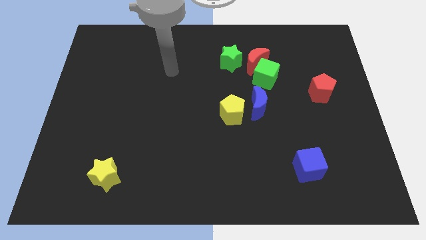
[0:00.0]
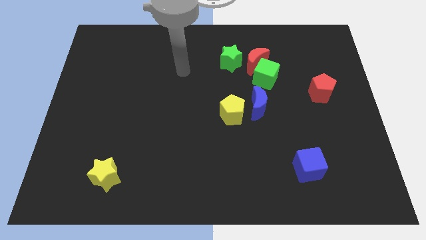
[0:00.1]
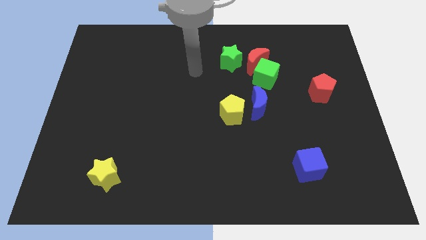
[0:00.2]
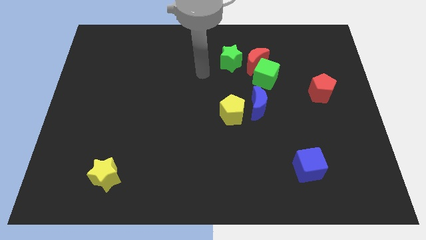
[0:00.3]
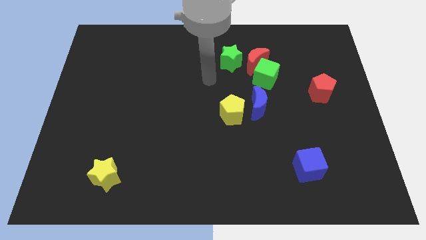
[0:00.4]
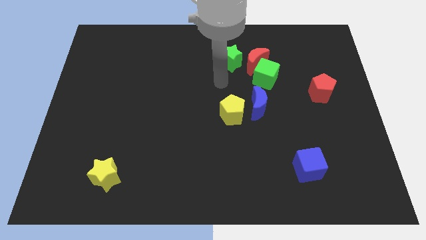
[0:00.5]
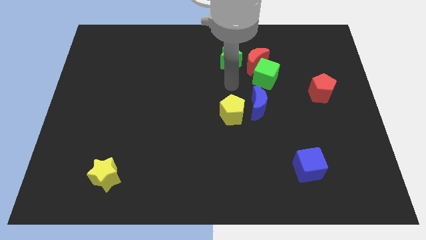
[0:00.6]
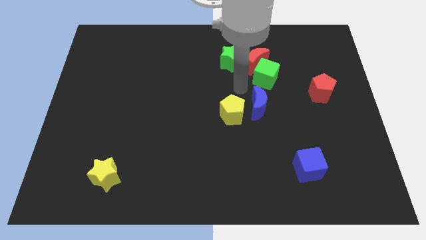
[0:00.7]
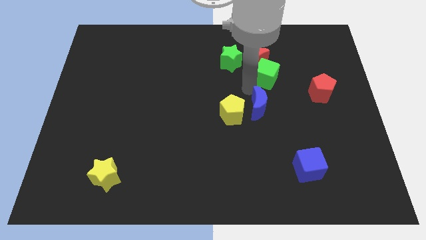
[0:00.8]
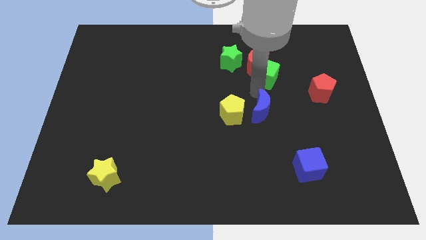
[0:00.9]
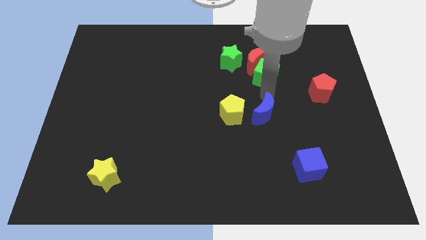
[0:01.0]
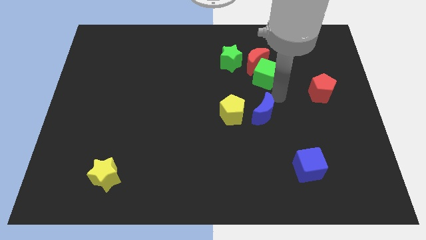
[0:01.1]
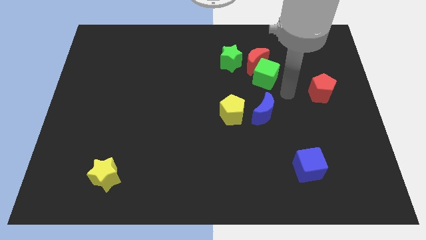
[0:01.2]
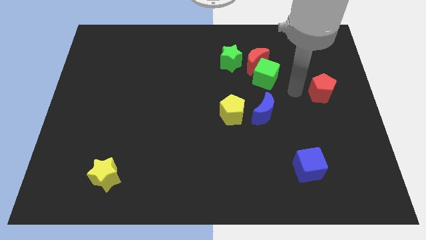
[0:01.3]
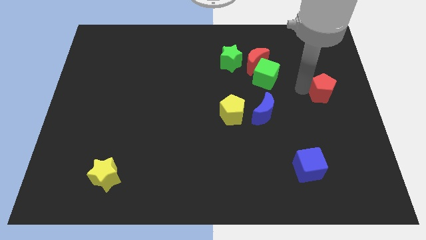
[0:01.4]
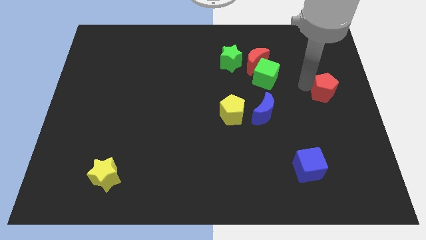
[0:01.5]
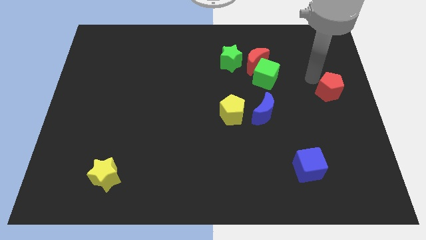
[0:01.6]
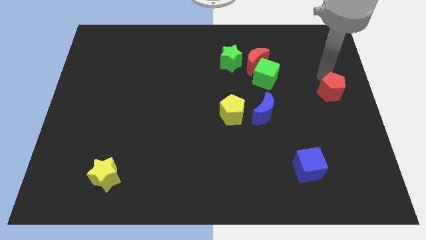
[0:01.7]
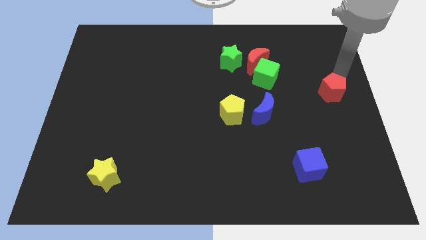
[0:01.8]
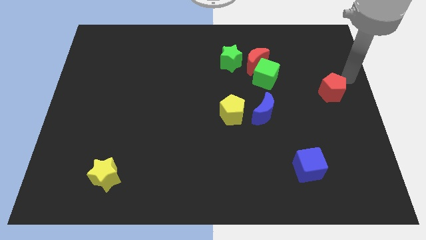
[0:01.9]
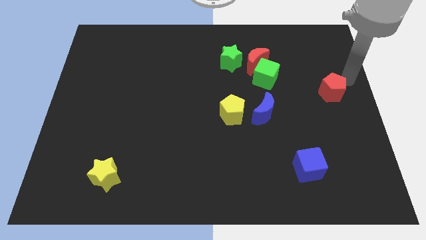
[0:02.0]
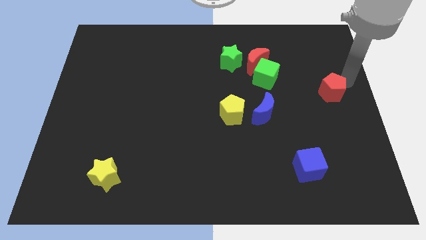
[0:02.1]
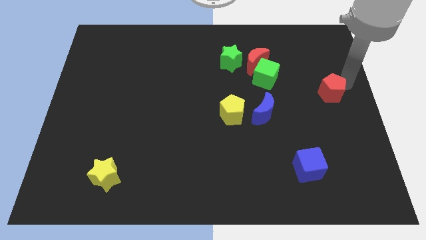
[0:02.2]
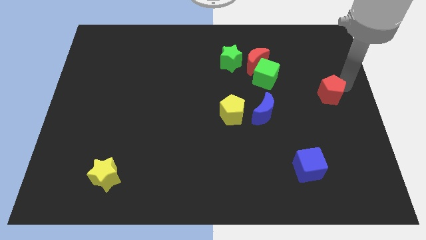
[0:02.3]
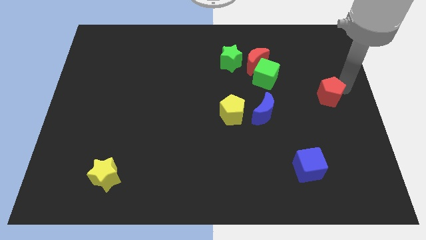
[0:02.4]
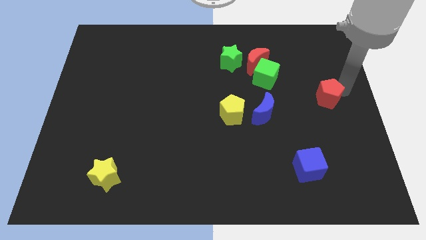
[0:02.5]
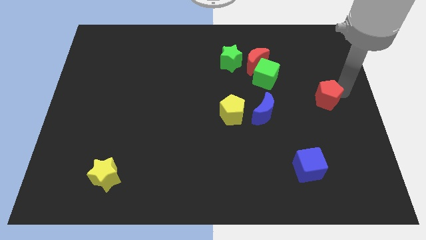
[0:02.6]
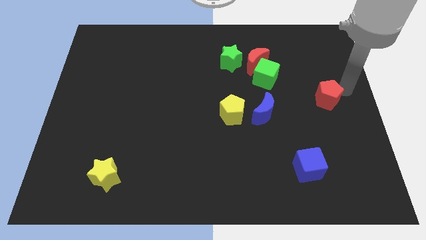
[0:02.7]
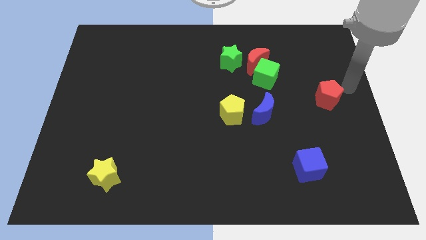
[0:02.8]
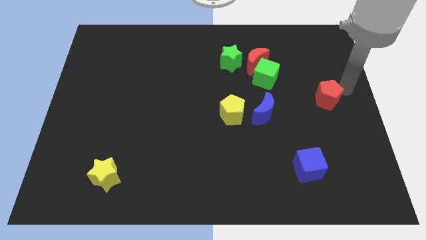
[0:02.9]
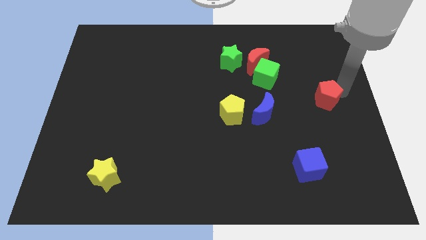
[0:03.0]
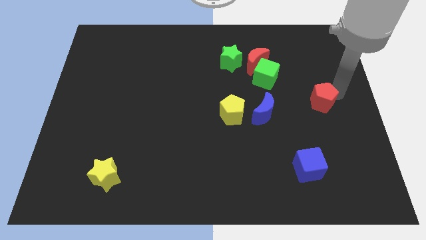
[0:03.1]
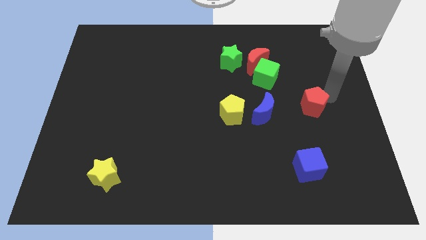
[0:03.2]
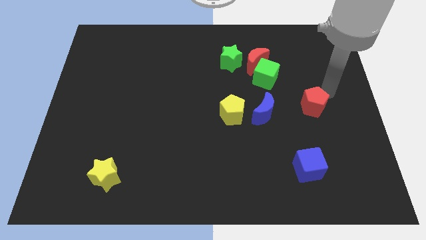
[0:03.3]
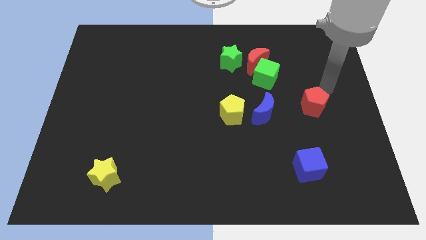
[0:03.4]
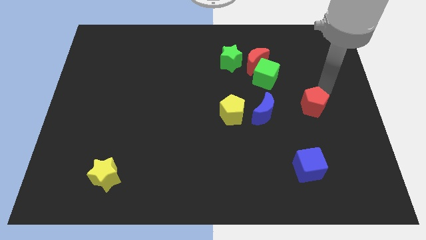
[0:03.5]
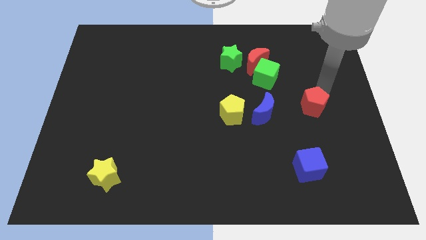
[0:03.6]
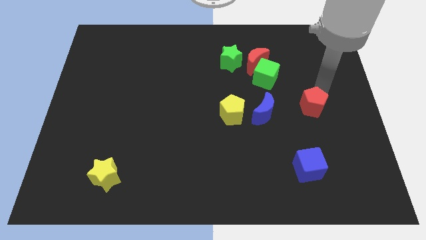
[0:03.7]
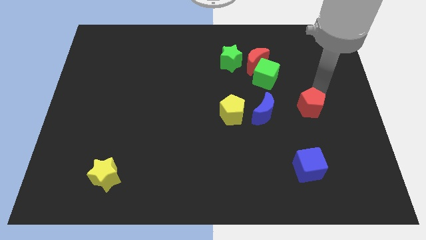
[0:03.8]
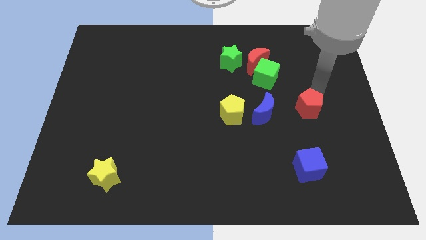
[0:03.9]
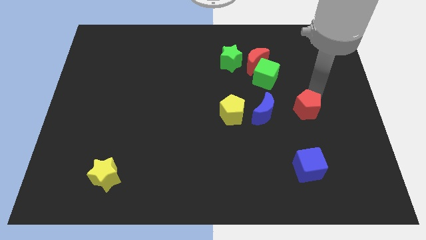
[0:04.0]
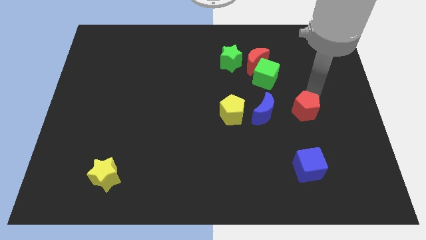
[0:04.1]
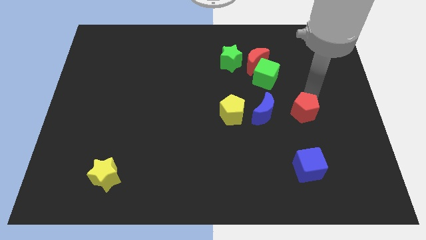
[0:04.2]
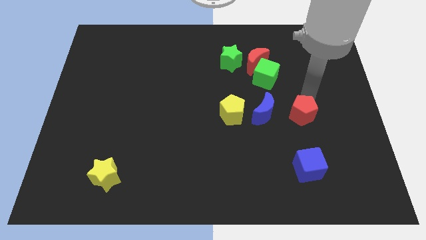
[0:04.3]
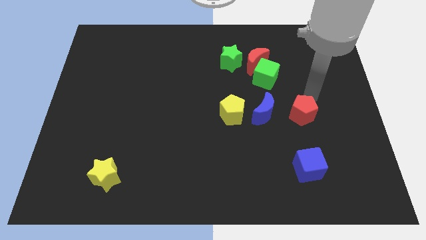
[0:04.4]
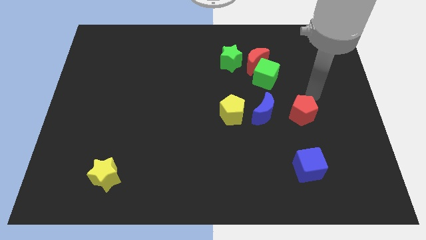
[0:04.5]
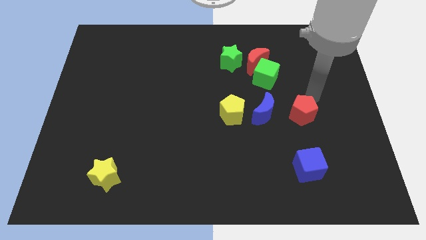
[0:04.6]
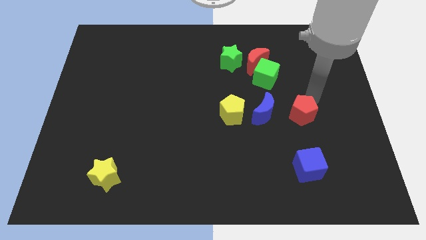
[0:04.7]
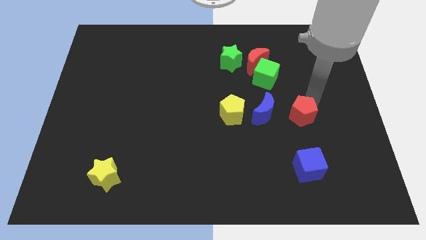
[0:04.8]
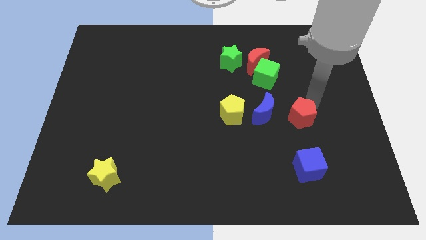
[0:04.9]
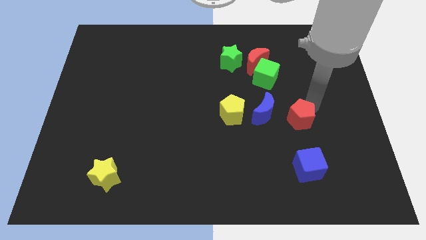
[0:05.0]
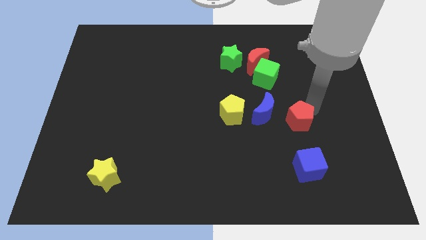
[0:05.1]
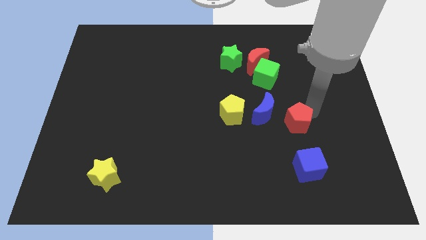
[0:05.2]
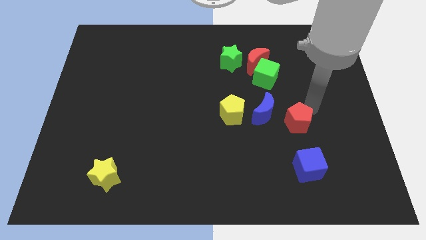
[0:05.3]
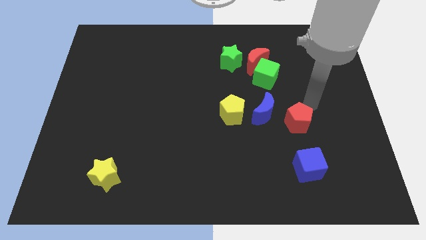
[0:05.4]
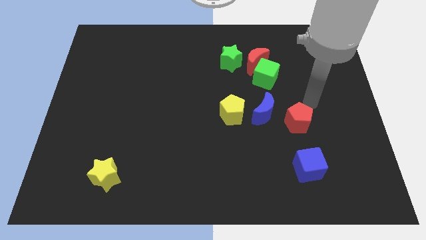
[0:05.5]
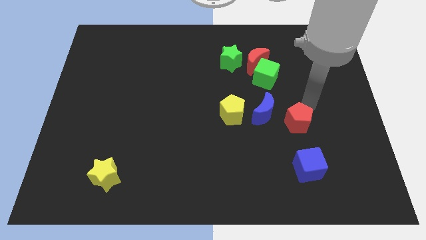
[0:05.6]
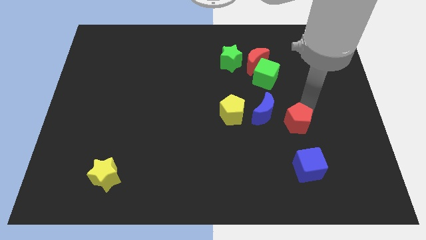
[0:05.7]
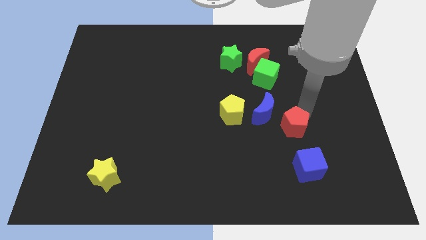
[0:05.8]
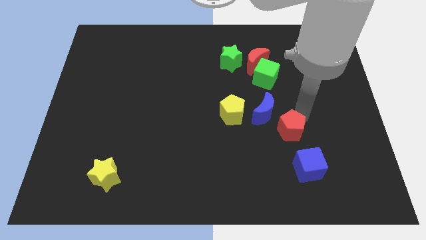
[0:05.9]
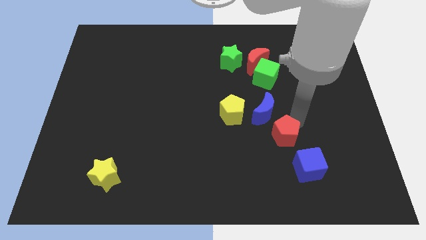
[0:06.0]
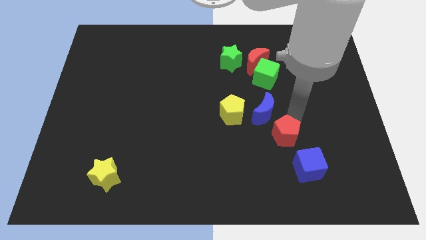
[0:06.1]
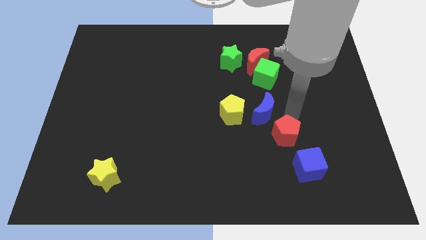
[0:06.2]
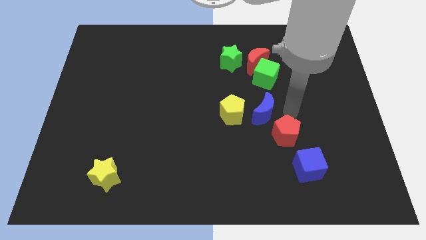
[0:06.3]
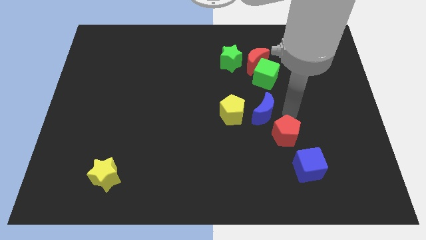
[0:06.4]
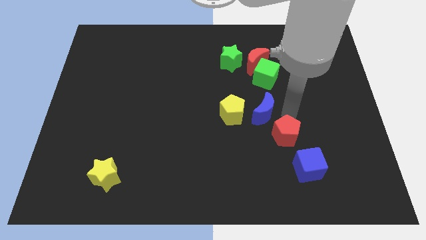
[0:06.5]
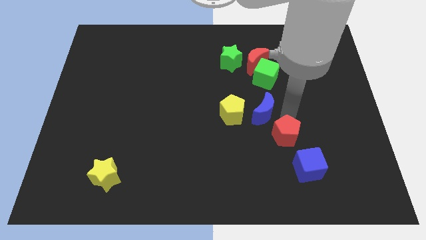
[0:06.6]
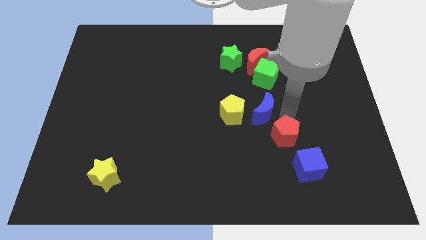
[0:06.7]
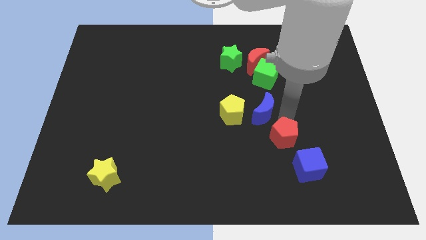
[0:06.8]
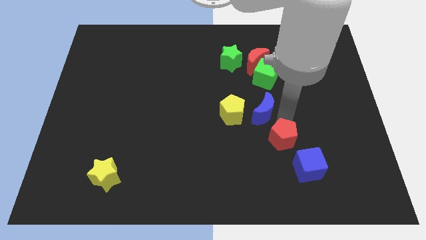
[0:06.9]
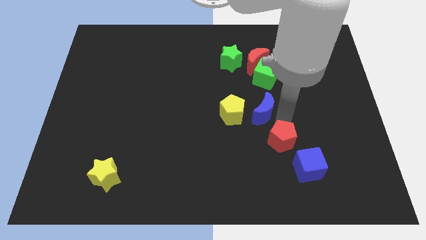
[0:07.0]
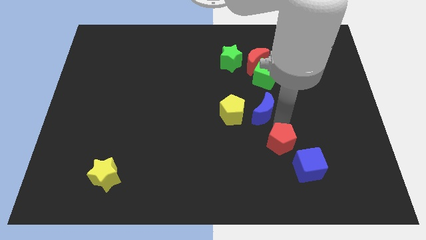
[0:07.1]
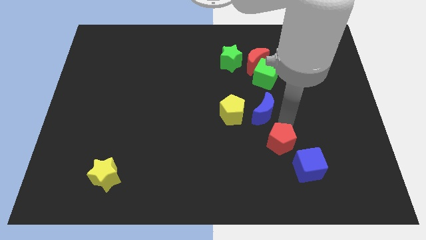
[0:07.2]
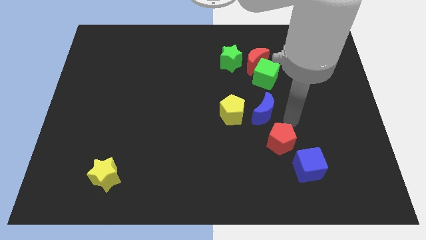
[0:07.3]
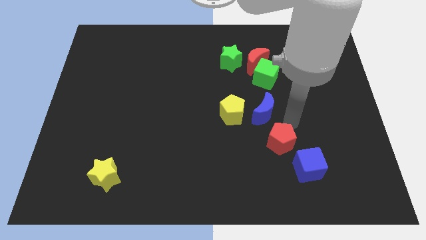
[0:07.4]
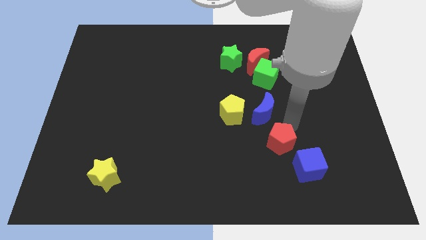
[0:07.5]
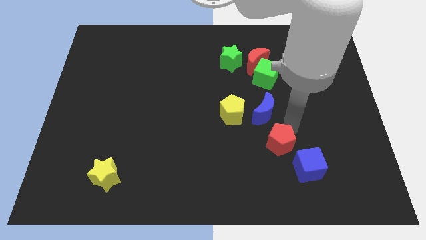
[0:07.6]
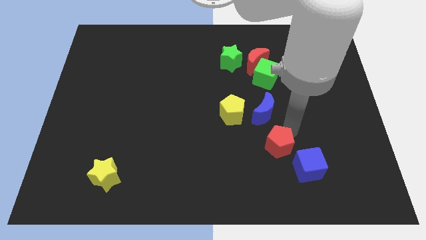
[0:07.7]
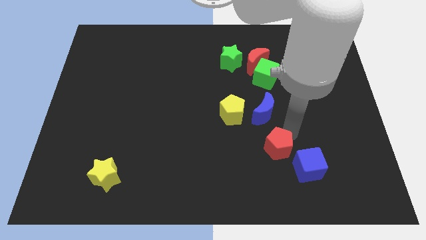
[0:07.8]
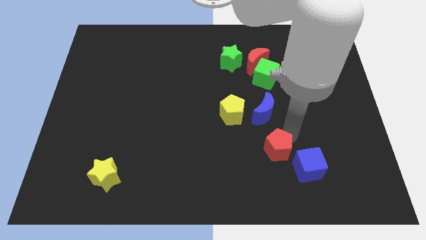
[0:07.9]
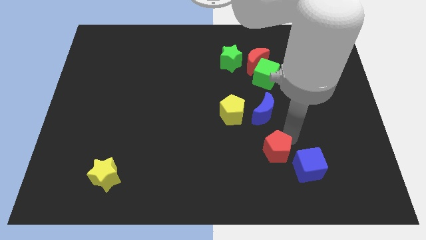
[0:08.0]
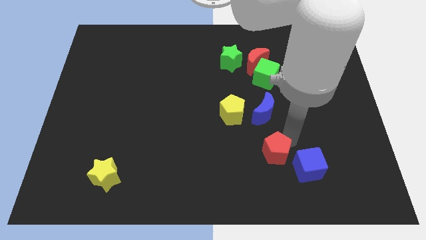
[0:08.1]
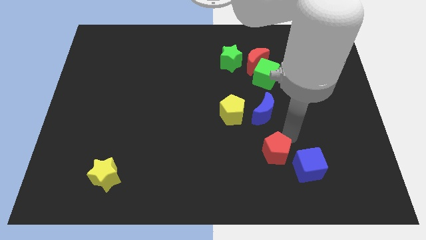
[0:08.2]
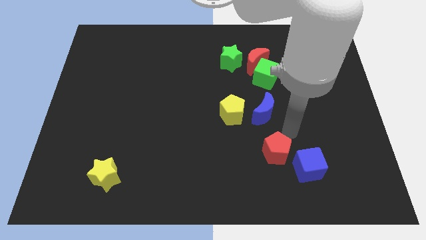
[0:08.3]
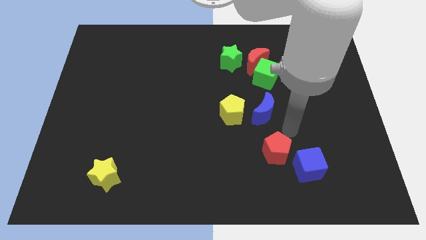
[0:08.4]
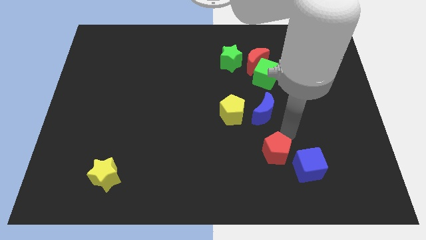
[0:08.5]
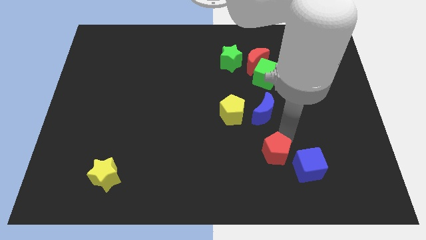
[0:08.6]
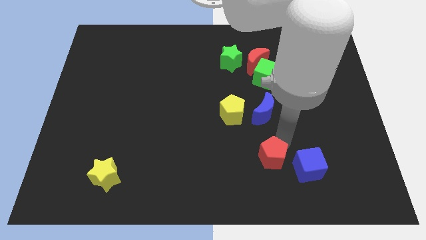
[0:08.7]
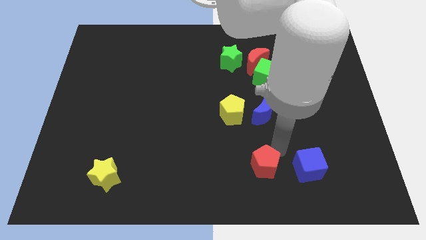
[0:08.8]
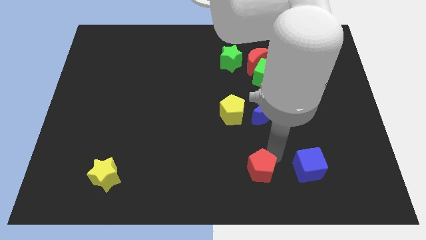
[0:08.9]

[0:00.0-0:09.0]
slide the red pentagon to the bottom
